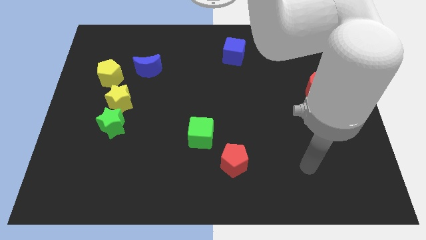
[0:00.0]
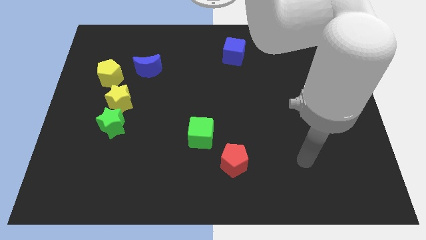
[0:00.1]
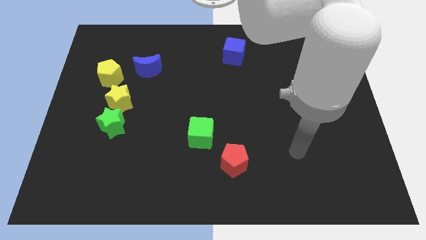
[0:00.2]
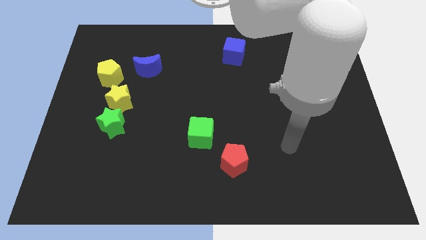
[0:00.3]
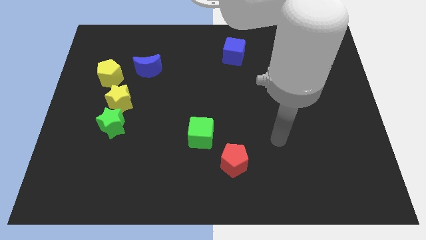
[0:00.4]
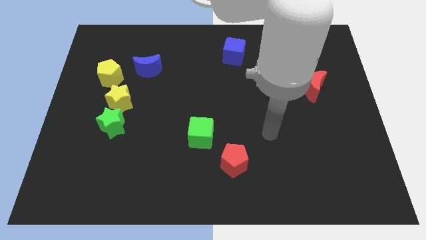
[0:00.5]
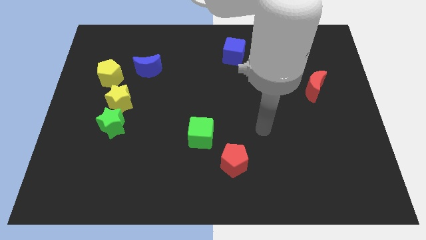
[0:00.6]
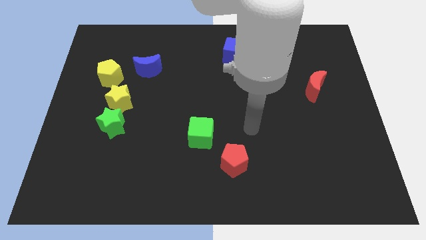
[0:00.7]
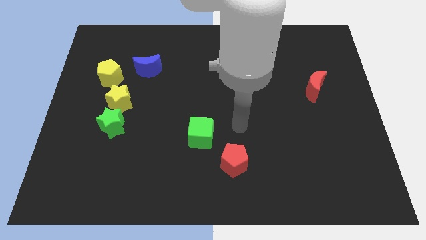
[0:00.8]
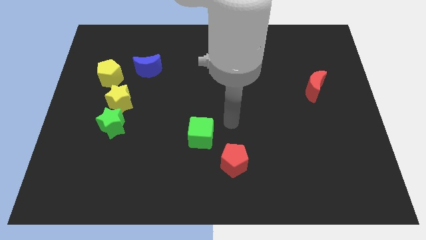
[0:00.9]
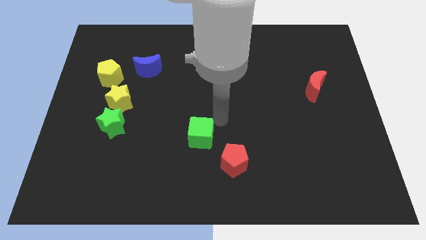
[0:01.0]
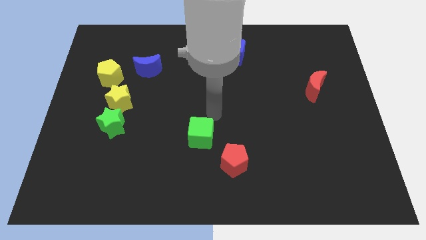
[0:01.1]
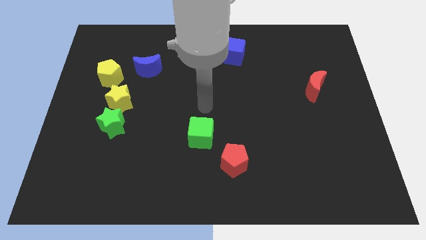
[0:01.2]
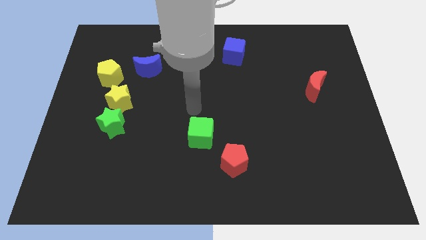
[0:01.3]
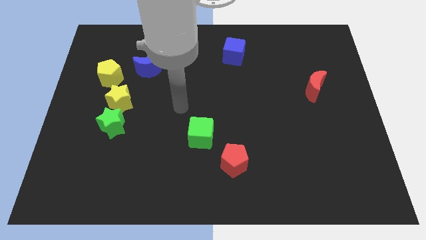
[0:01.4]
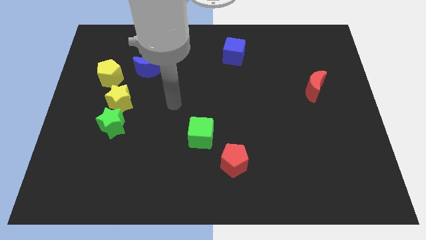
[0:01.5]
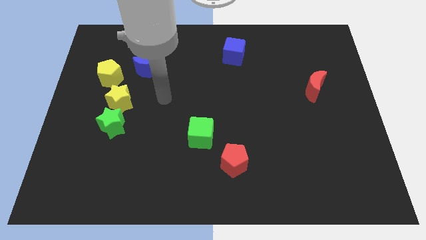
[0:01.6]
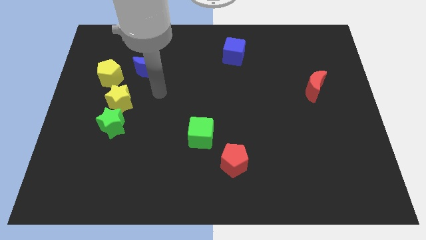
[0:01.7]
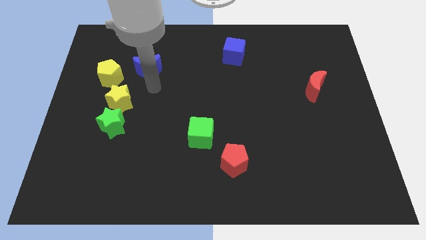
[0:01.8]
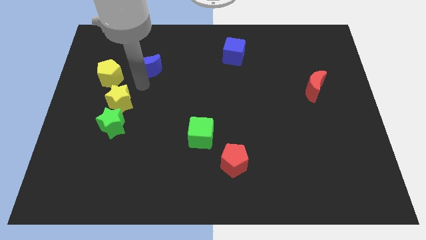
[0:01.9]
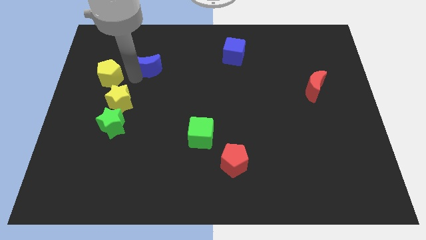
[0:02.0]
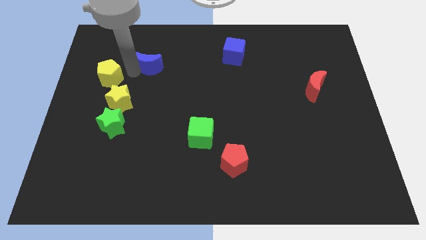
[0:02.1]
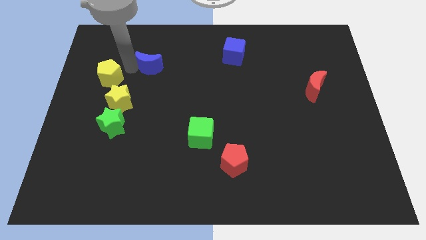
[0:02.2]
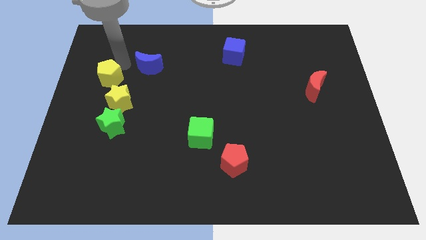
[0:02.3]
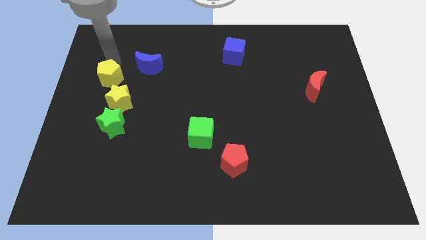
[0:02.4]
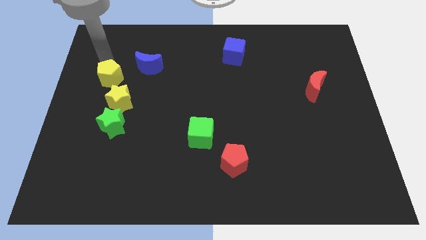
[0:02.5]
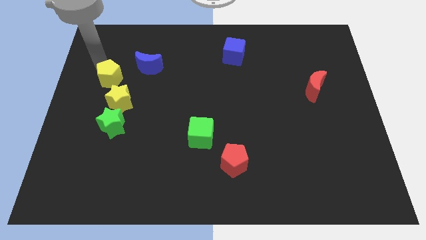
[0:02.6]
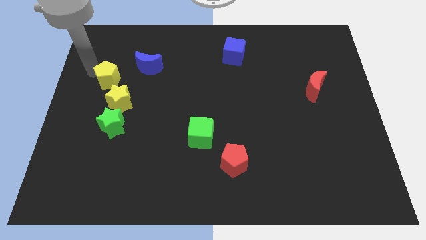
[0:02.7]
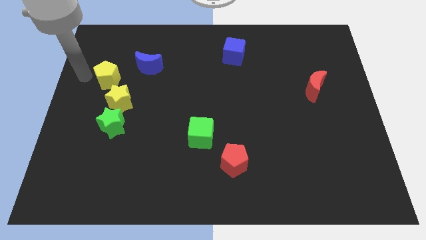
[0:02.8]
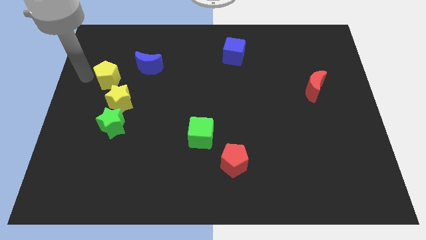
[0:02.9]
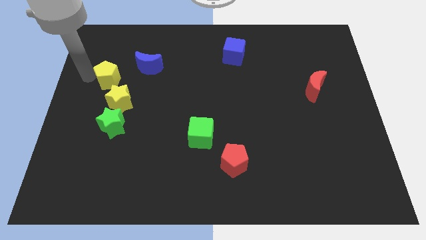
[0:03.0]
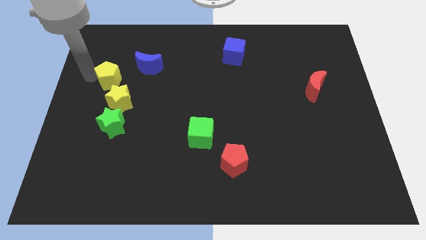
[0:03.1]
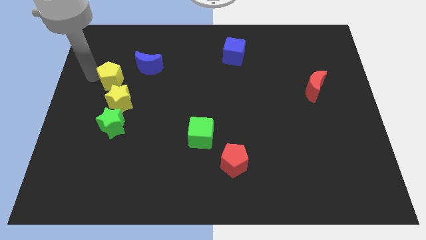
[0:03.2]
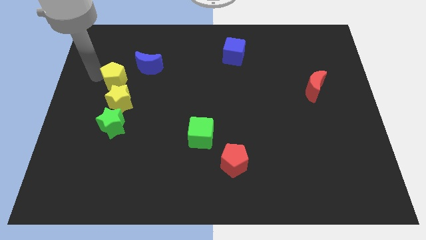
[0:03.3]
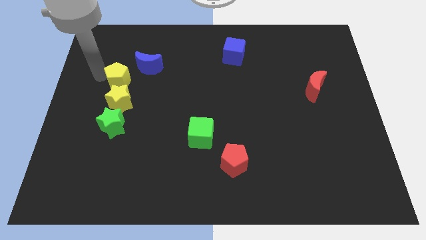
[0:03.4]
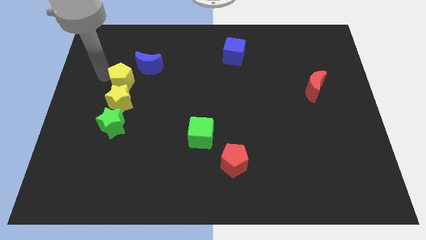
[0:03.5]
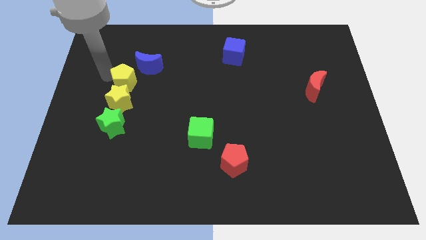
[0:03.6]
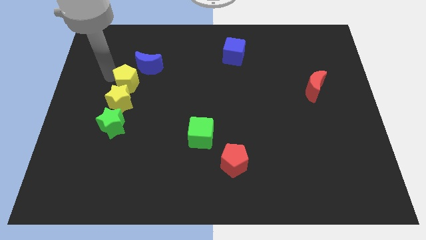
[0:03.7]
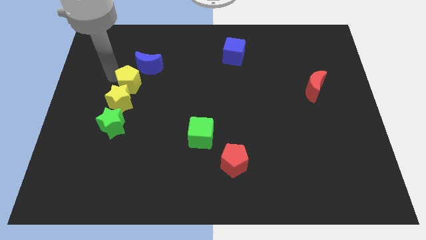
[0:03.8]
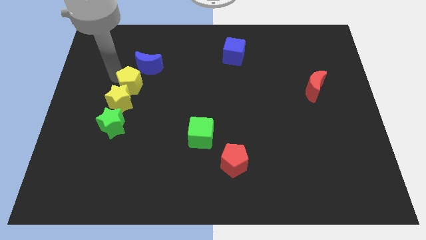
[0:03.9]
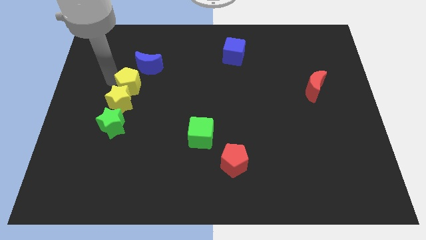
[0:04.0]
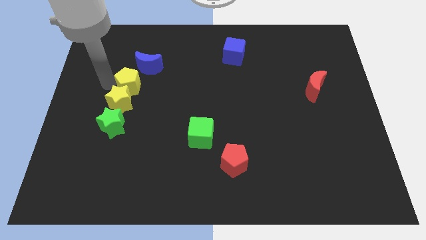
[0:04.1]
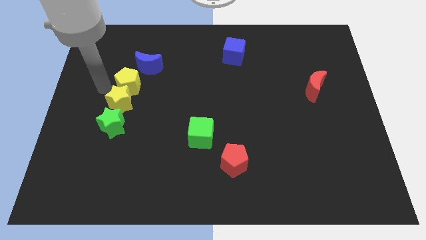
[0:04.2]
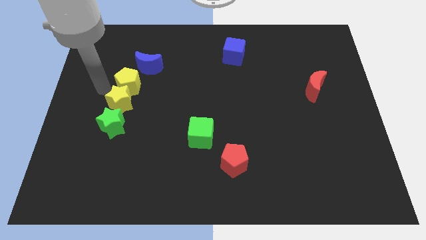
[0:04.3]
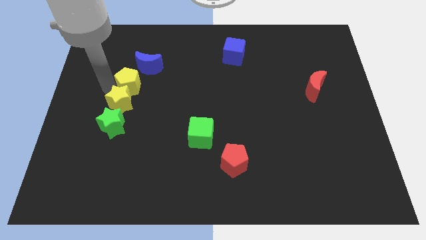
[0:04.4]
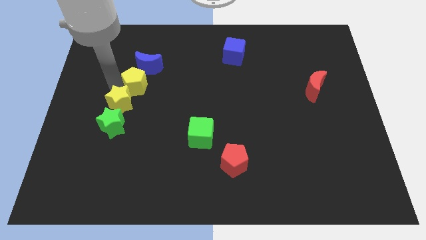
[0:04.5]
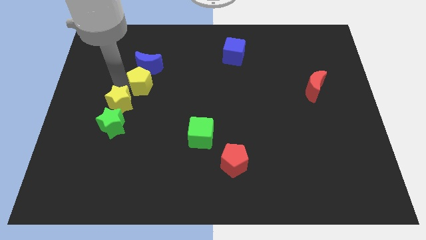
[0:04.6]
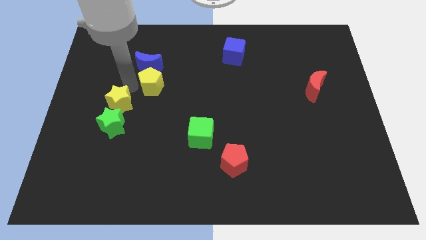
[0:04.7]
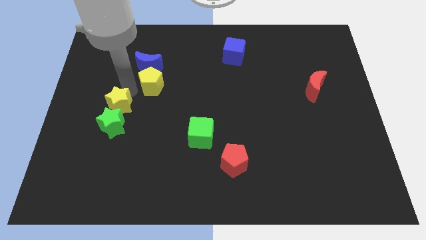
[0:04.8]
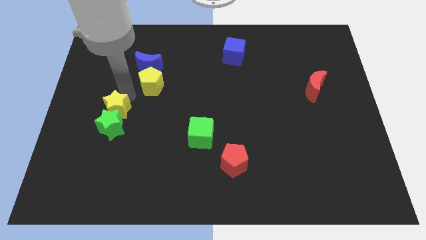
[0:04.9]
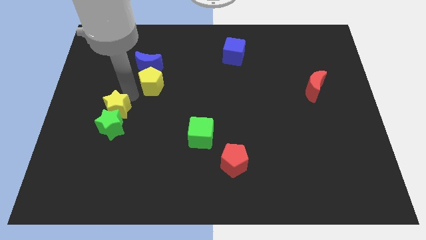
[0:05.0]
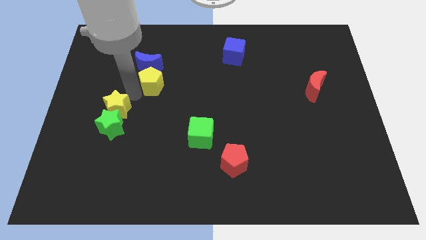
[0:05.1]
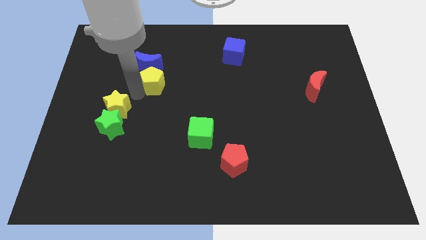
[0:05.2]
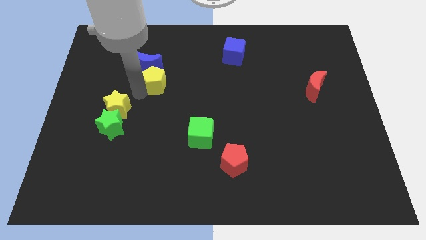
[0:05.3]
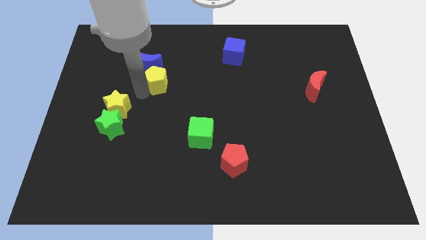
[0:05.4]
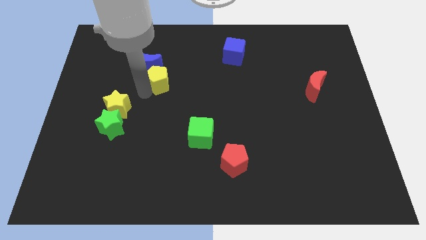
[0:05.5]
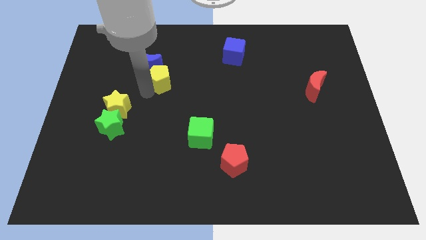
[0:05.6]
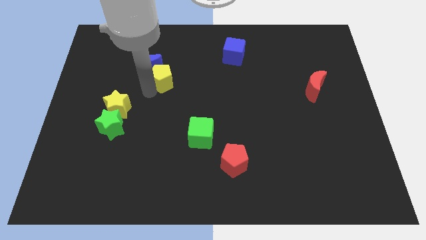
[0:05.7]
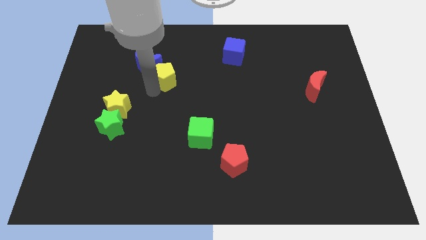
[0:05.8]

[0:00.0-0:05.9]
move the yellow pentagon to the right side of the blue moon

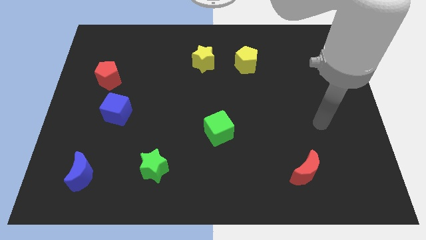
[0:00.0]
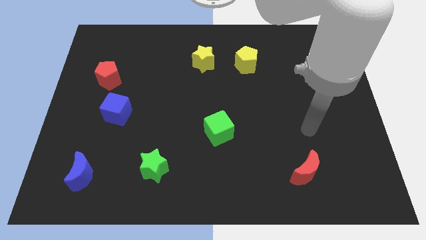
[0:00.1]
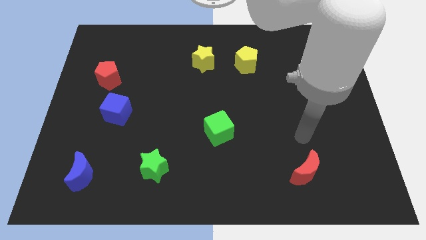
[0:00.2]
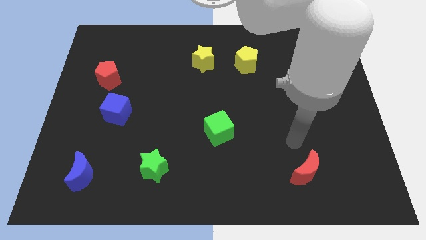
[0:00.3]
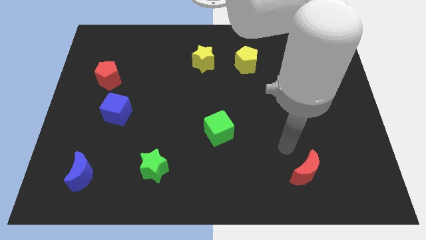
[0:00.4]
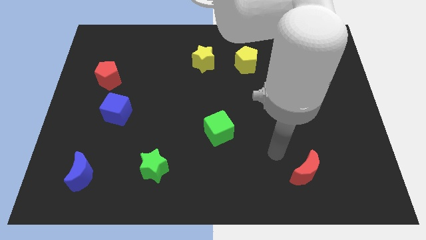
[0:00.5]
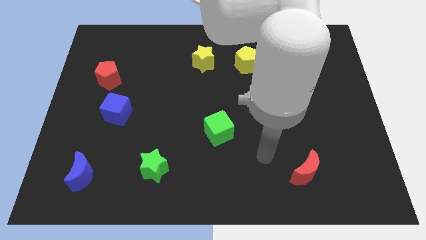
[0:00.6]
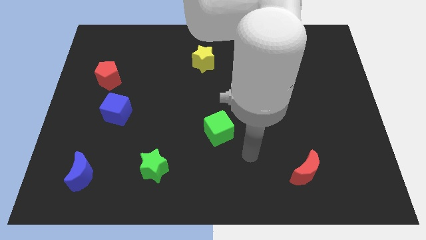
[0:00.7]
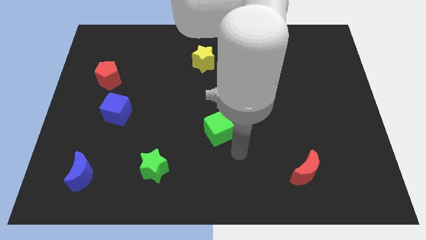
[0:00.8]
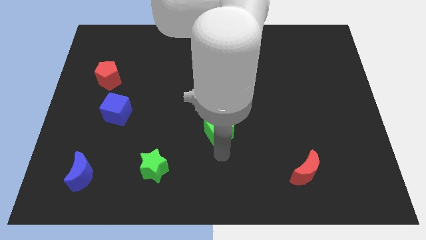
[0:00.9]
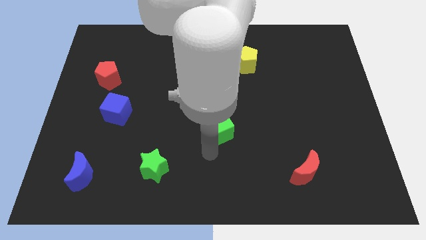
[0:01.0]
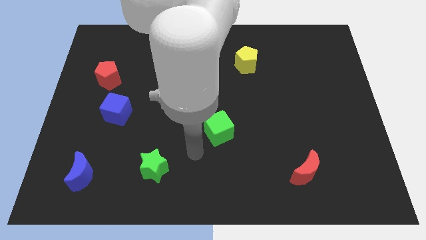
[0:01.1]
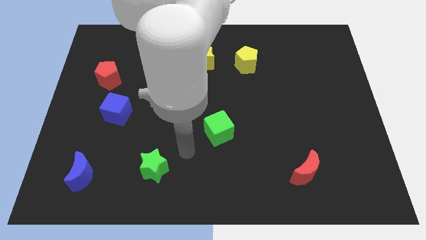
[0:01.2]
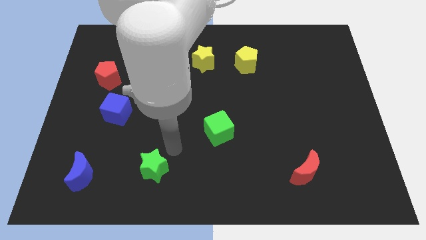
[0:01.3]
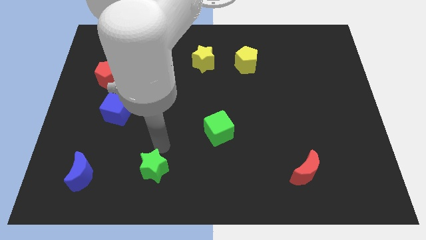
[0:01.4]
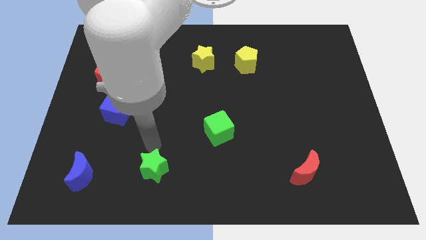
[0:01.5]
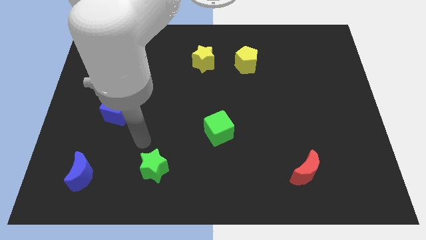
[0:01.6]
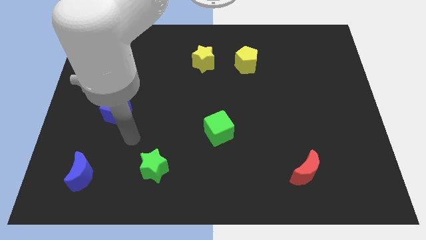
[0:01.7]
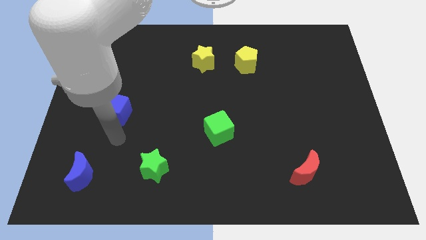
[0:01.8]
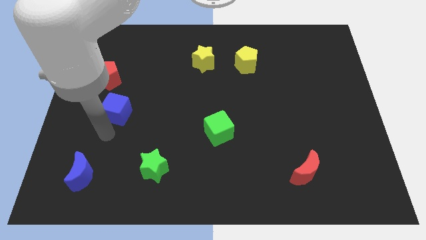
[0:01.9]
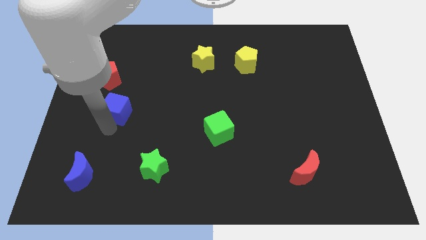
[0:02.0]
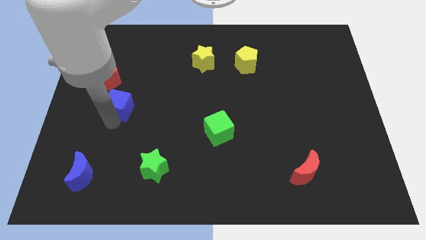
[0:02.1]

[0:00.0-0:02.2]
move the blue cube to the bottom right of the red pentagon

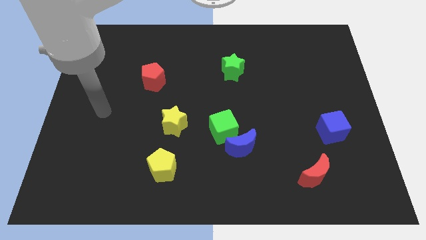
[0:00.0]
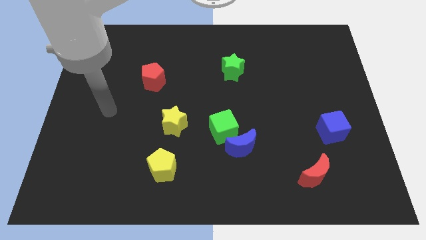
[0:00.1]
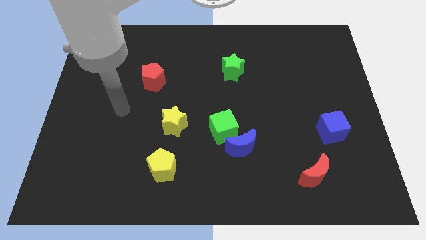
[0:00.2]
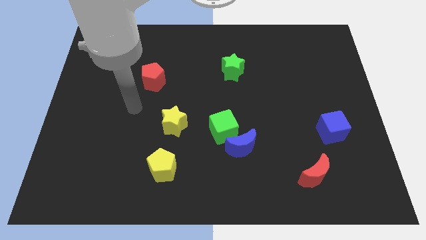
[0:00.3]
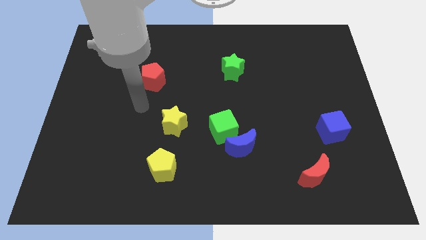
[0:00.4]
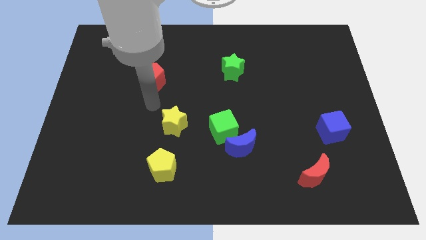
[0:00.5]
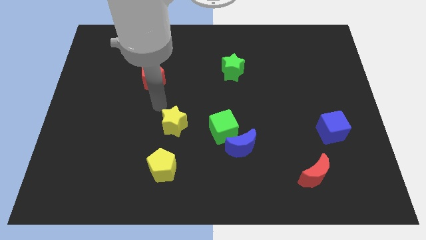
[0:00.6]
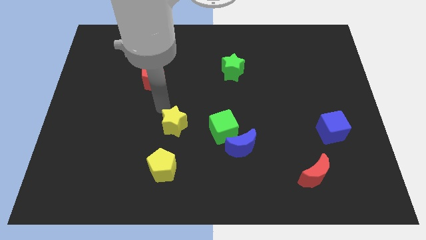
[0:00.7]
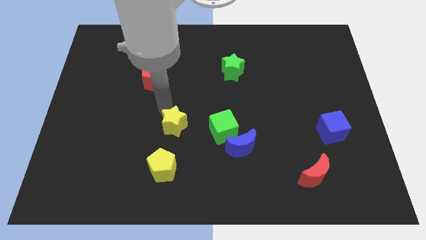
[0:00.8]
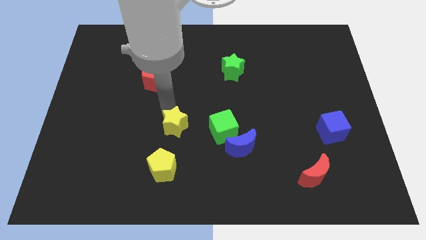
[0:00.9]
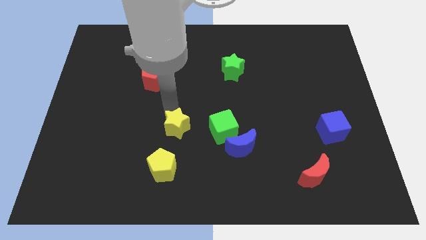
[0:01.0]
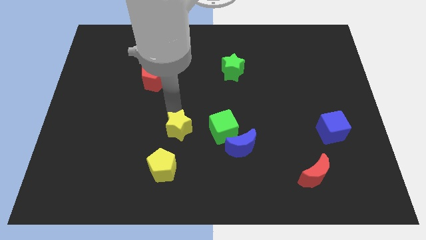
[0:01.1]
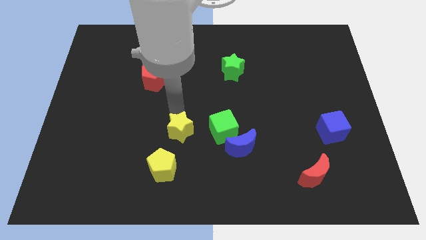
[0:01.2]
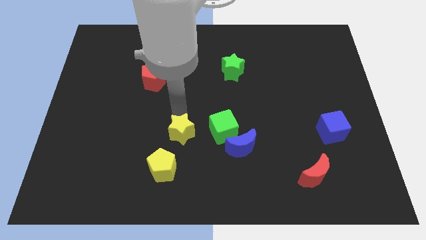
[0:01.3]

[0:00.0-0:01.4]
push the yellow star left of the blue moon
